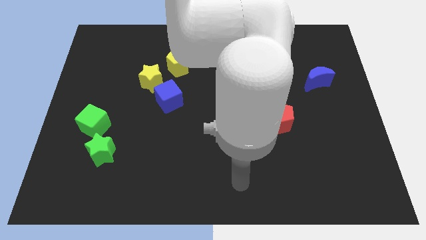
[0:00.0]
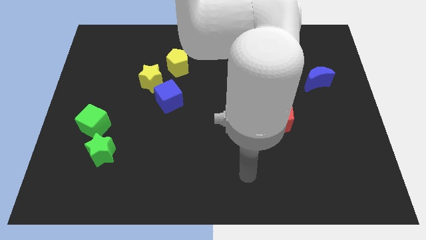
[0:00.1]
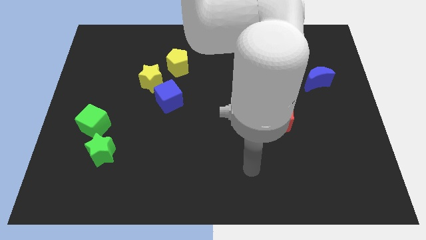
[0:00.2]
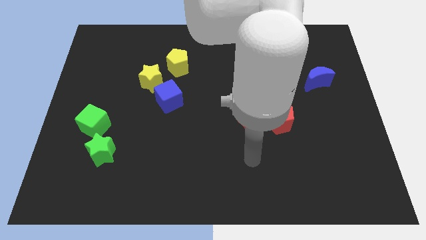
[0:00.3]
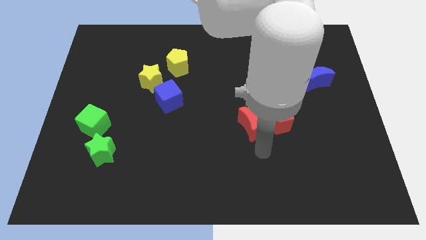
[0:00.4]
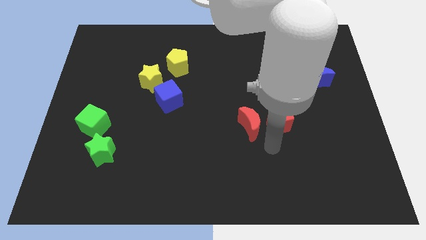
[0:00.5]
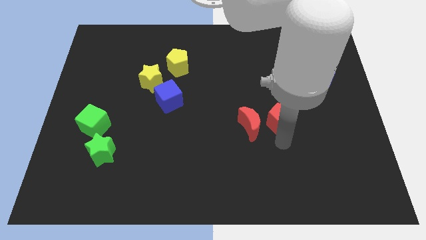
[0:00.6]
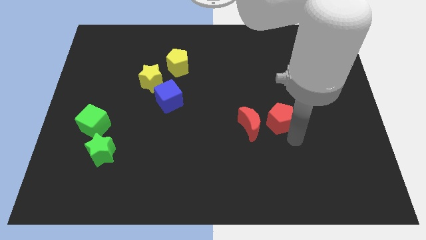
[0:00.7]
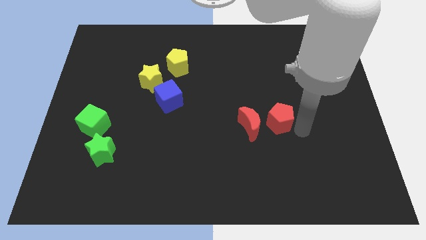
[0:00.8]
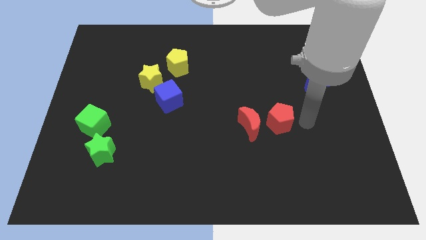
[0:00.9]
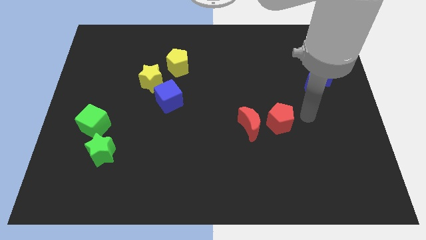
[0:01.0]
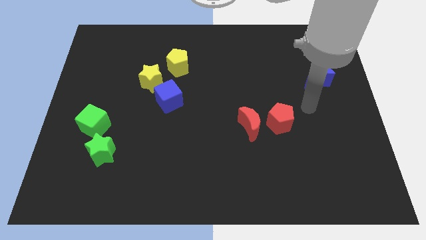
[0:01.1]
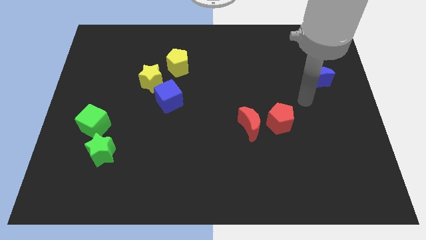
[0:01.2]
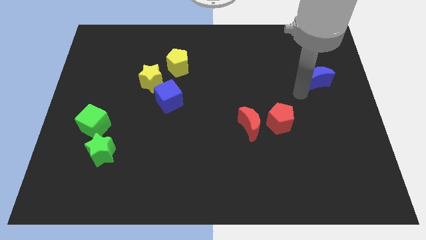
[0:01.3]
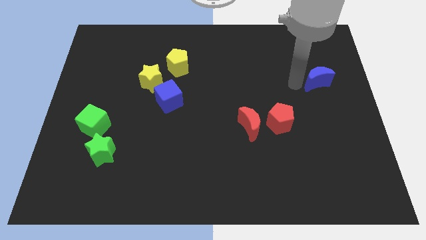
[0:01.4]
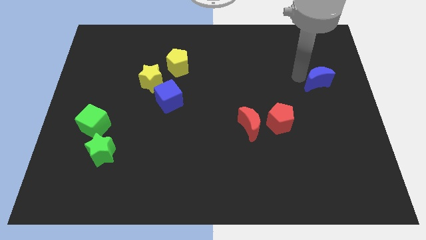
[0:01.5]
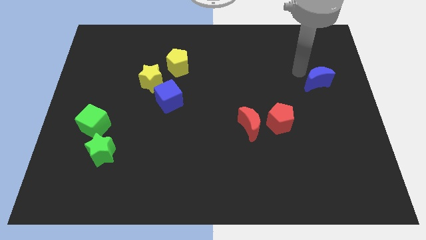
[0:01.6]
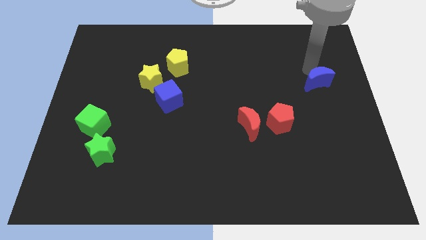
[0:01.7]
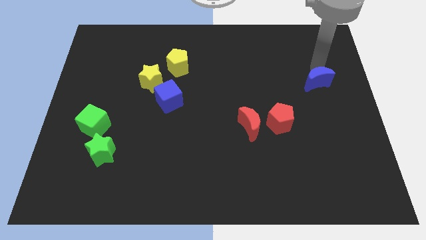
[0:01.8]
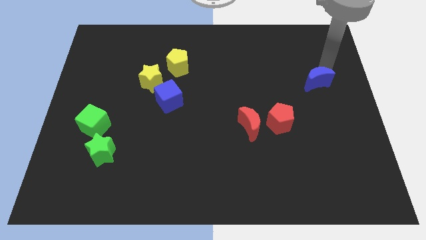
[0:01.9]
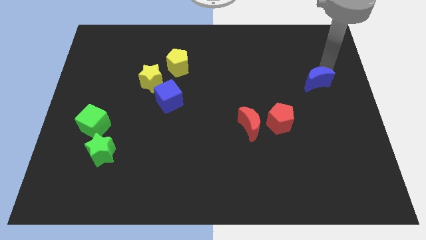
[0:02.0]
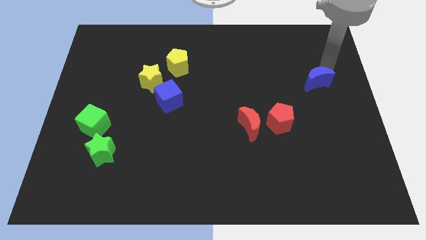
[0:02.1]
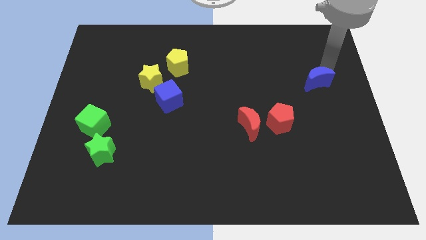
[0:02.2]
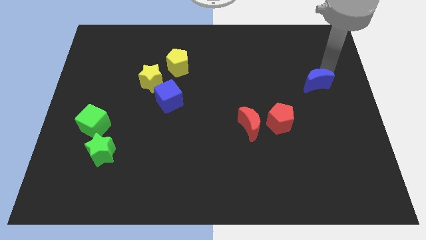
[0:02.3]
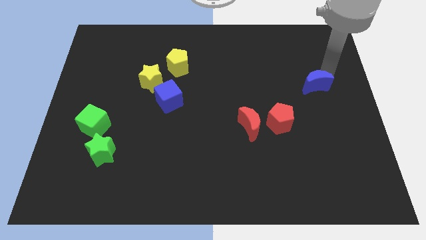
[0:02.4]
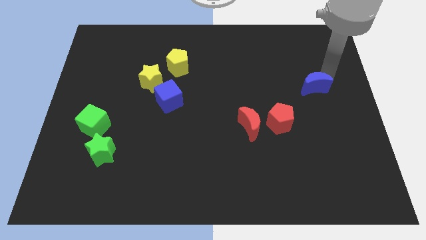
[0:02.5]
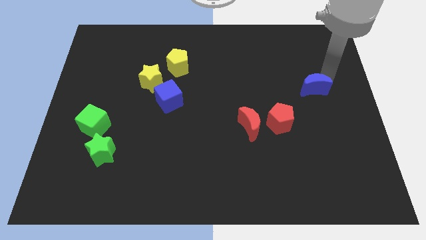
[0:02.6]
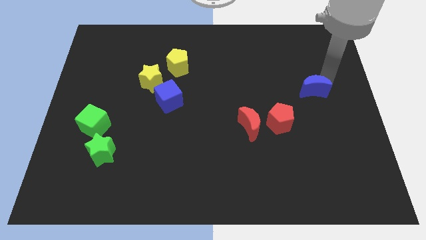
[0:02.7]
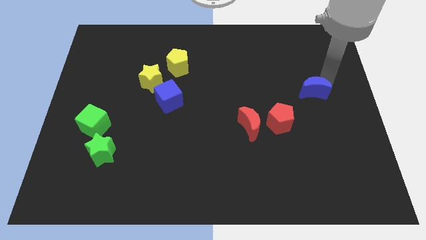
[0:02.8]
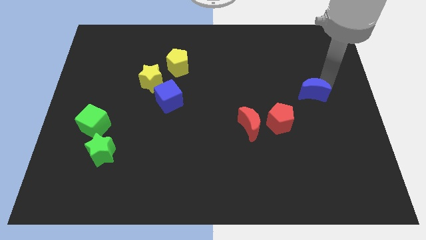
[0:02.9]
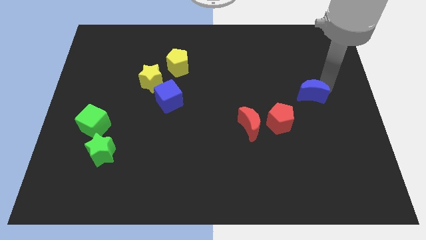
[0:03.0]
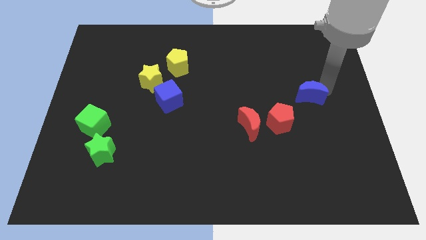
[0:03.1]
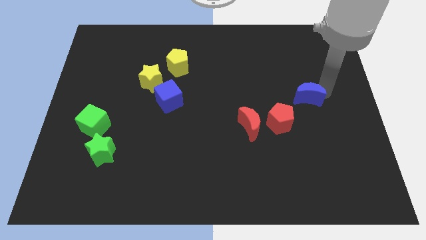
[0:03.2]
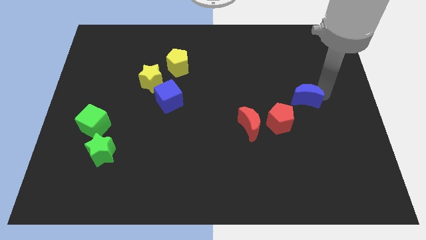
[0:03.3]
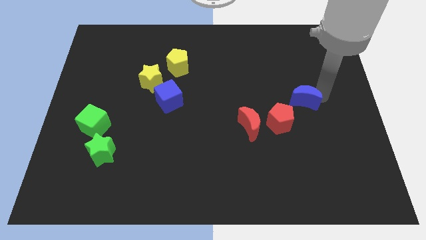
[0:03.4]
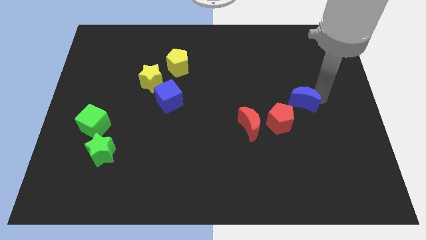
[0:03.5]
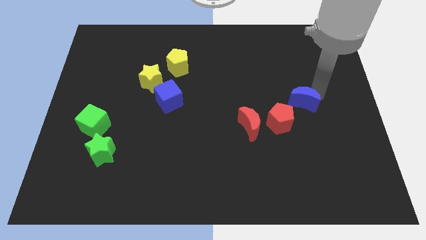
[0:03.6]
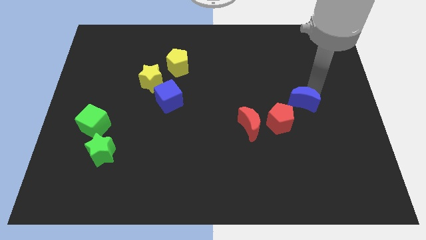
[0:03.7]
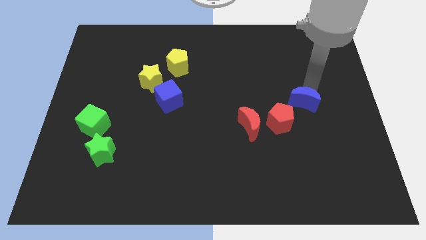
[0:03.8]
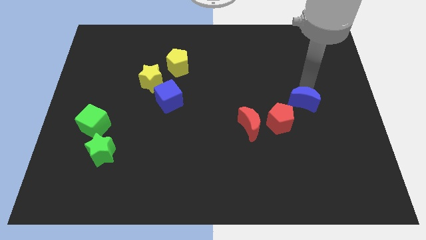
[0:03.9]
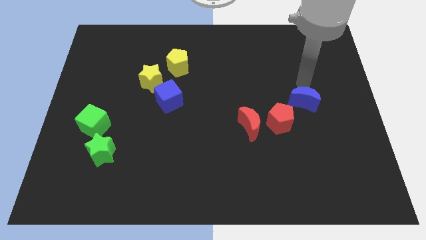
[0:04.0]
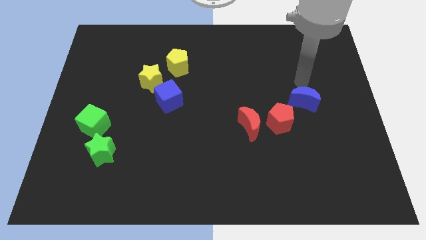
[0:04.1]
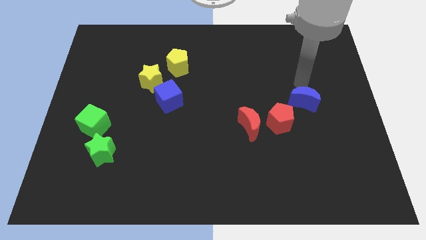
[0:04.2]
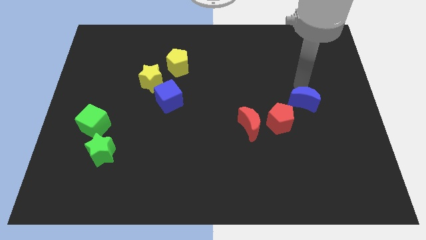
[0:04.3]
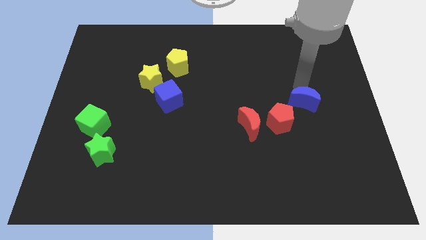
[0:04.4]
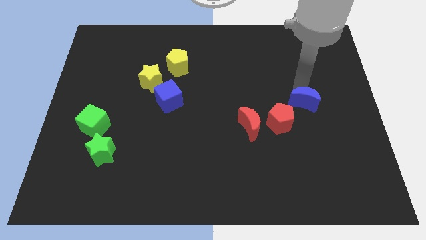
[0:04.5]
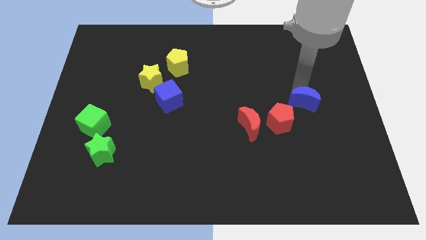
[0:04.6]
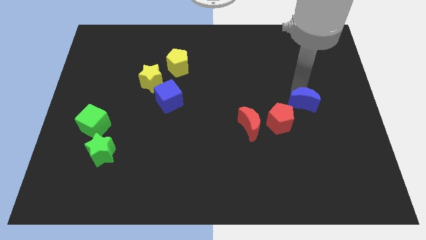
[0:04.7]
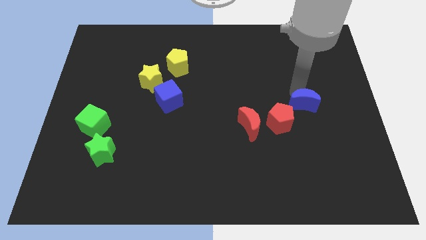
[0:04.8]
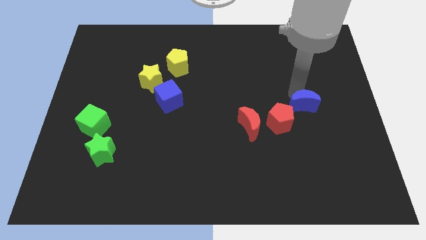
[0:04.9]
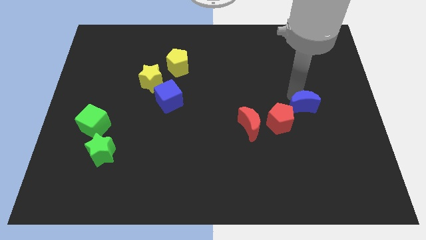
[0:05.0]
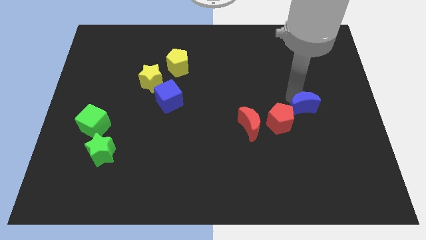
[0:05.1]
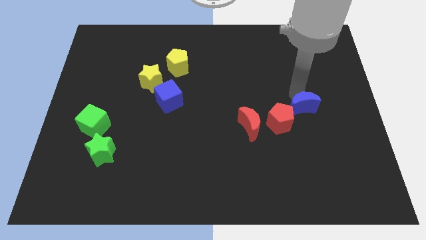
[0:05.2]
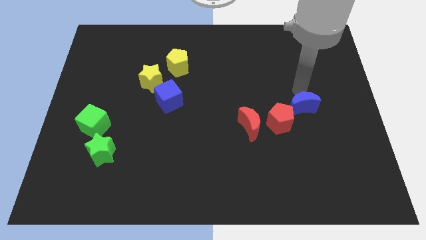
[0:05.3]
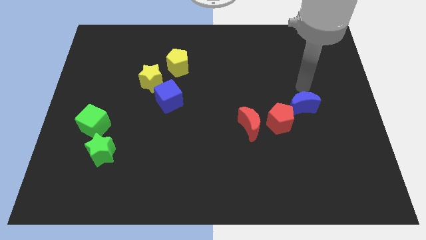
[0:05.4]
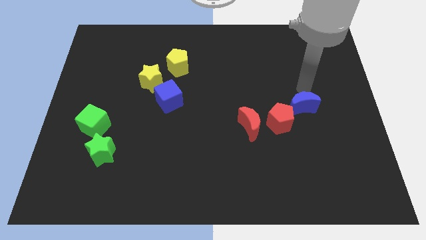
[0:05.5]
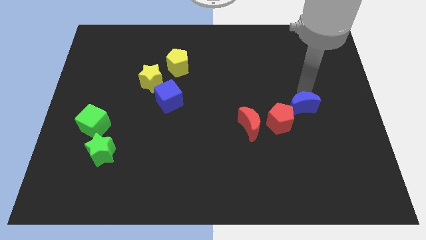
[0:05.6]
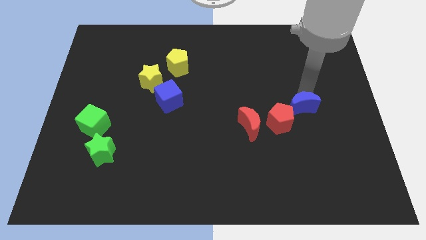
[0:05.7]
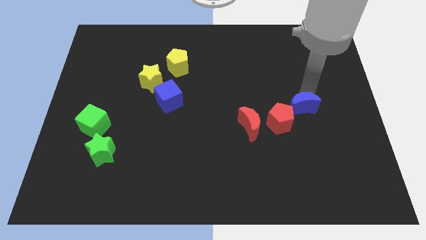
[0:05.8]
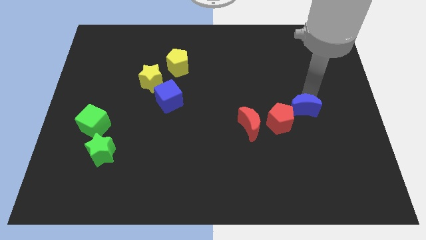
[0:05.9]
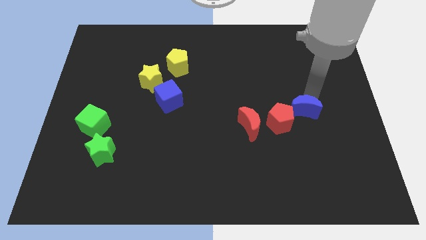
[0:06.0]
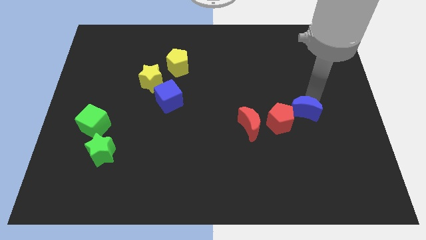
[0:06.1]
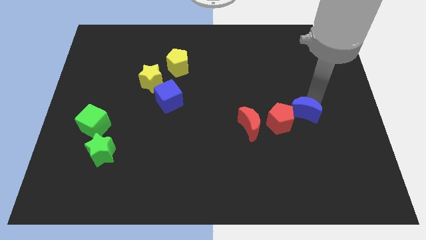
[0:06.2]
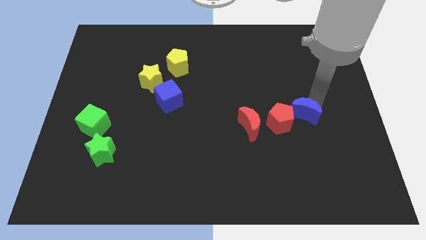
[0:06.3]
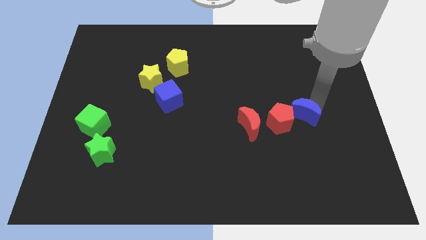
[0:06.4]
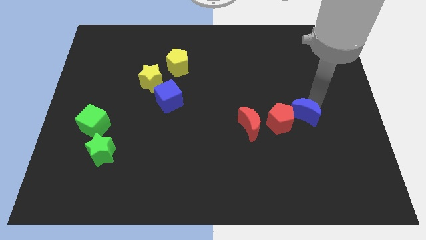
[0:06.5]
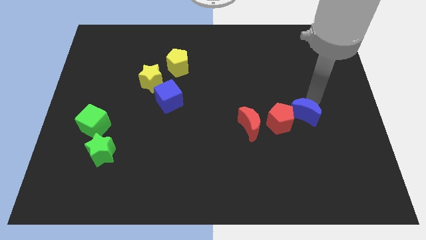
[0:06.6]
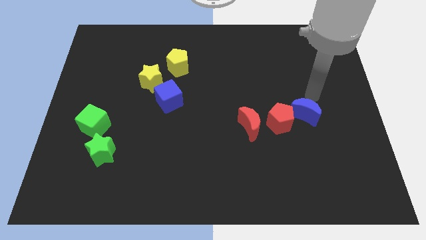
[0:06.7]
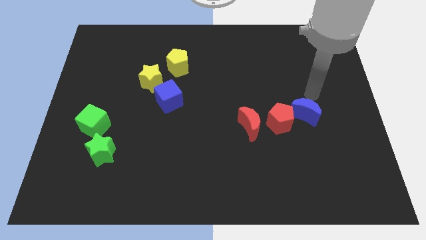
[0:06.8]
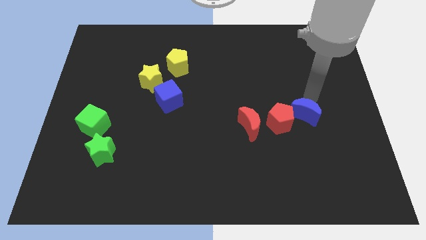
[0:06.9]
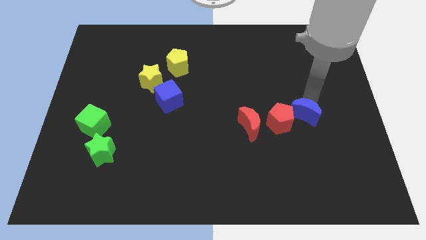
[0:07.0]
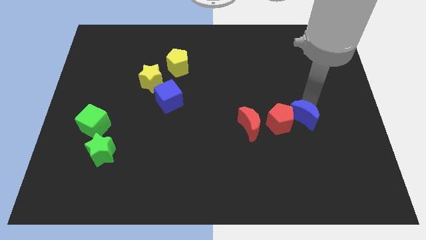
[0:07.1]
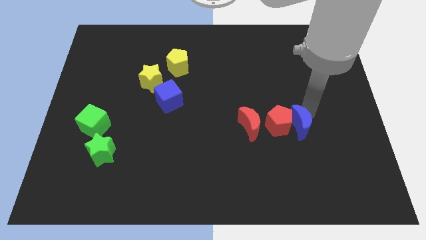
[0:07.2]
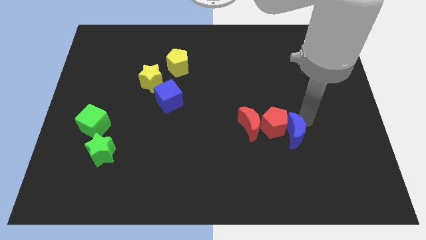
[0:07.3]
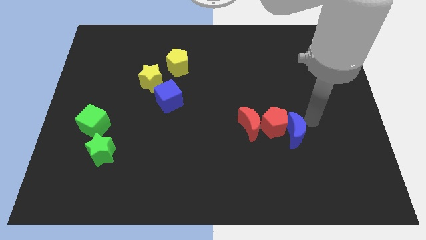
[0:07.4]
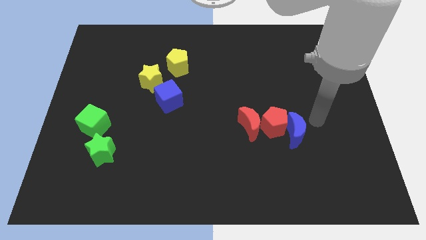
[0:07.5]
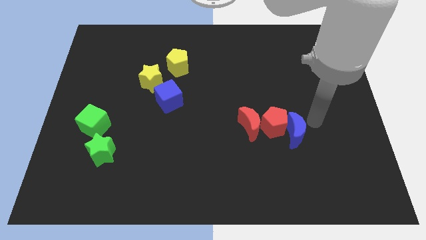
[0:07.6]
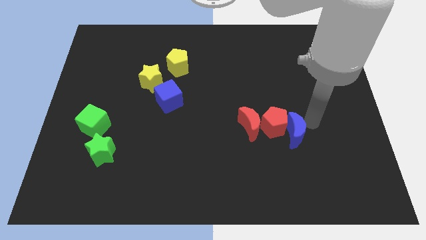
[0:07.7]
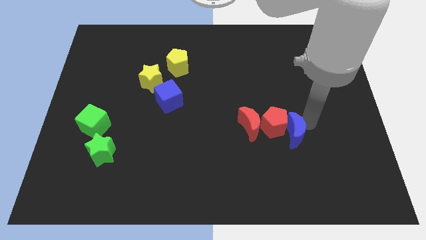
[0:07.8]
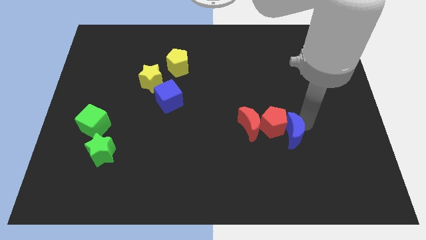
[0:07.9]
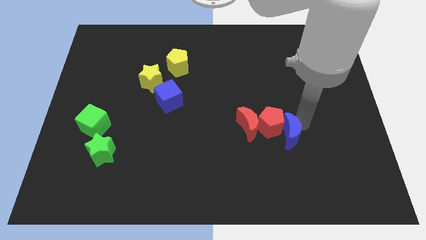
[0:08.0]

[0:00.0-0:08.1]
slide the blue moon to the bottom right of the red moon
